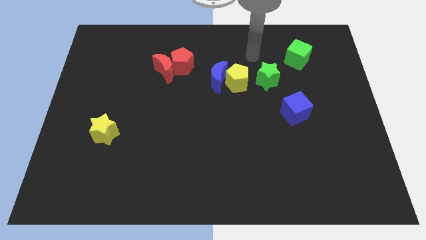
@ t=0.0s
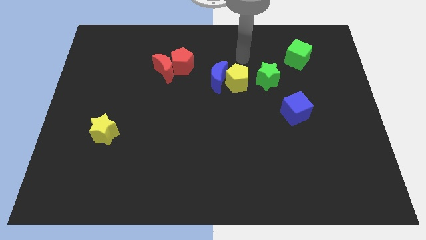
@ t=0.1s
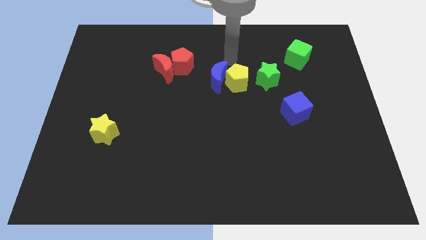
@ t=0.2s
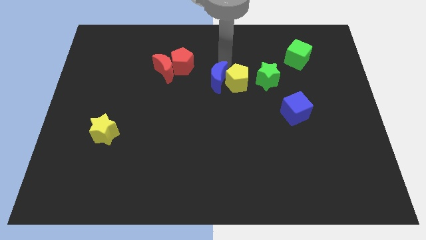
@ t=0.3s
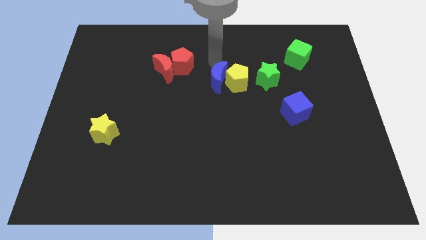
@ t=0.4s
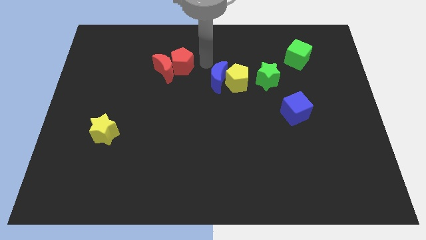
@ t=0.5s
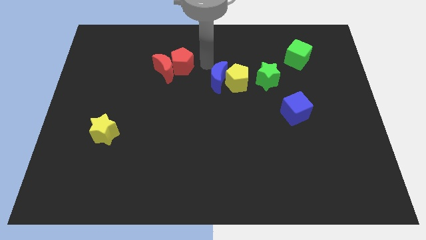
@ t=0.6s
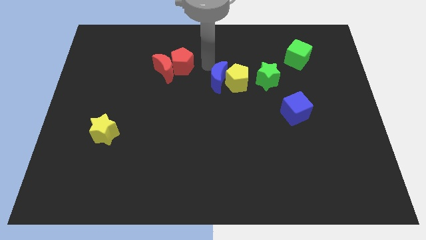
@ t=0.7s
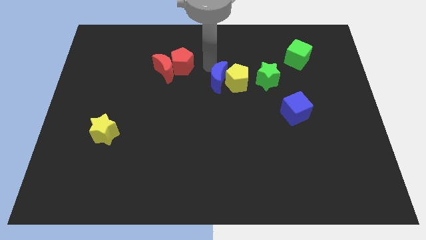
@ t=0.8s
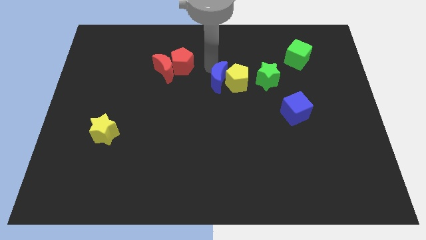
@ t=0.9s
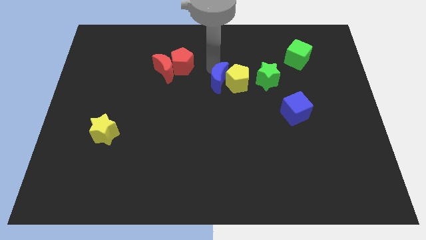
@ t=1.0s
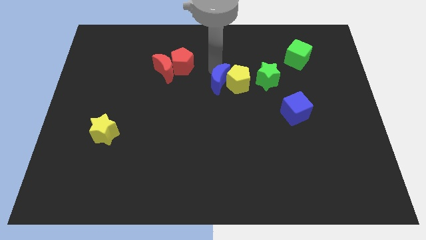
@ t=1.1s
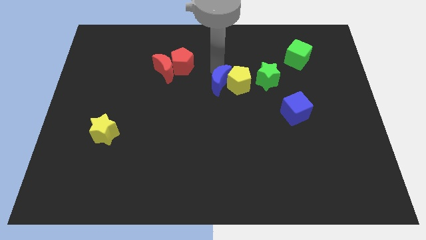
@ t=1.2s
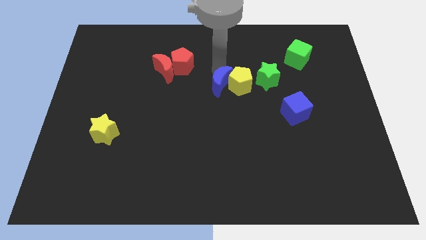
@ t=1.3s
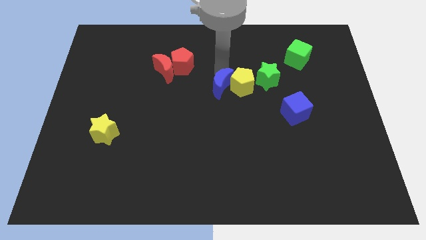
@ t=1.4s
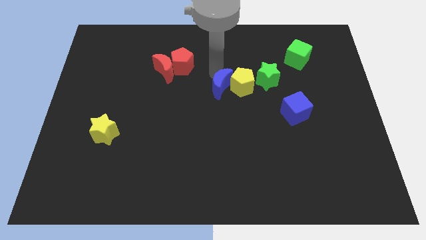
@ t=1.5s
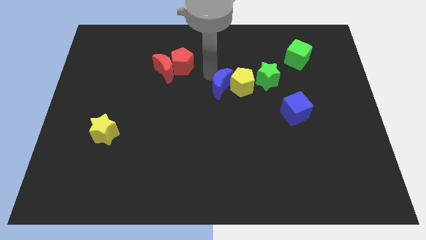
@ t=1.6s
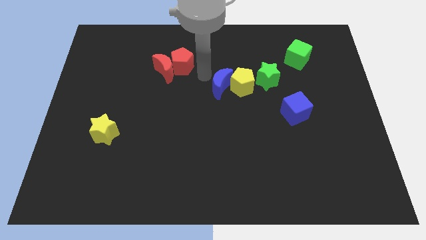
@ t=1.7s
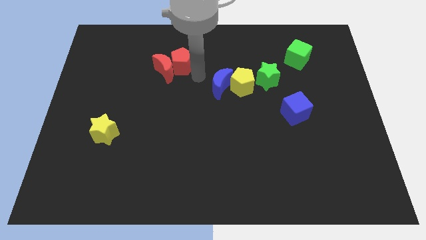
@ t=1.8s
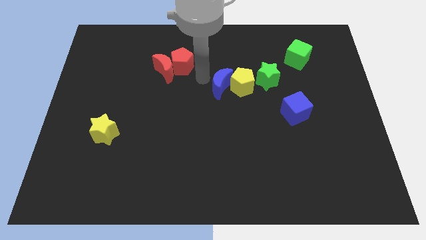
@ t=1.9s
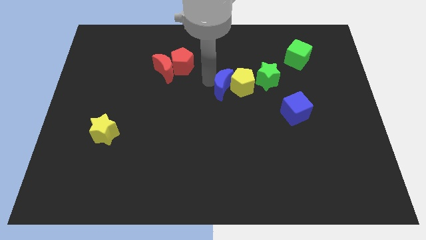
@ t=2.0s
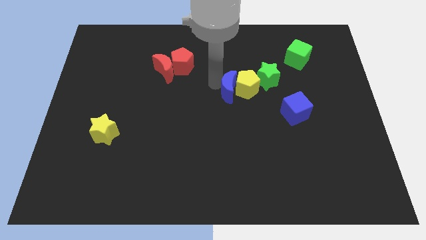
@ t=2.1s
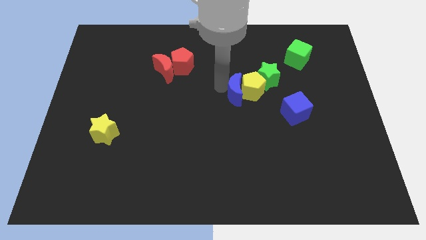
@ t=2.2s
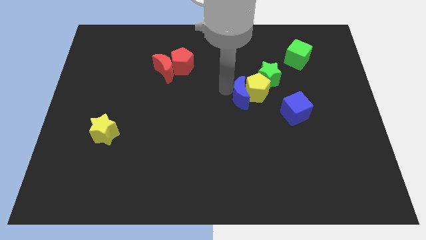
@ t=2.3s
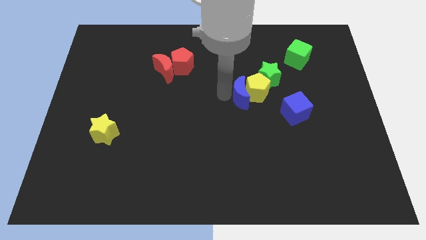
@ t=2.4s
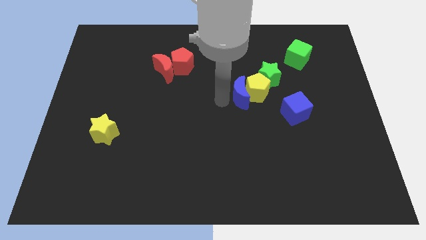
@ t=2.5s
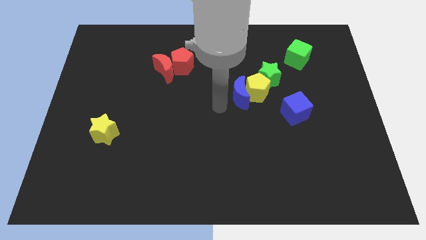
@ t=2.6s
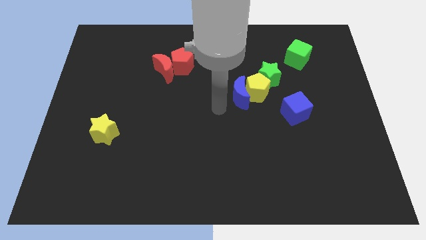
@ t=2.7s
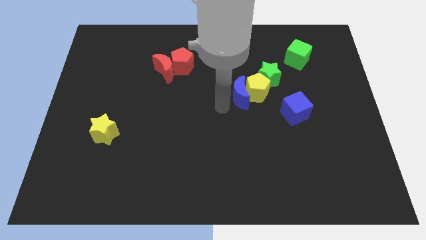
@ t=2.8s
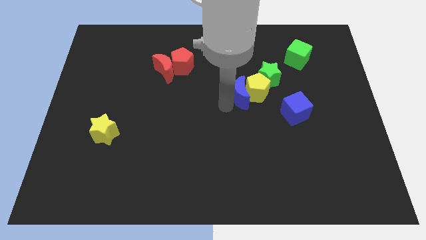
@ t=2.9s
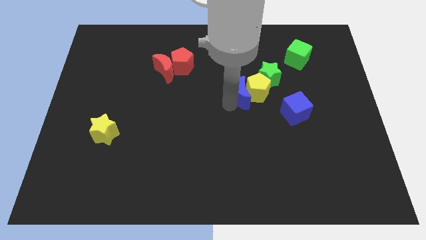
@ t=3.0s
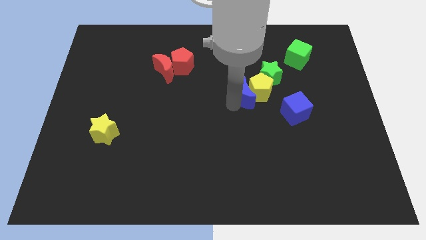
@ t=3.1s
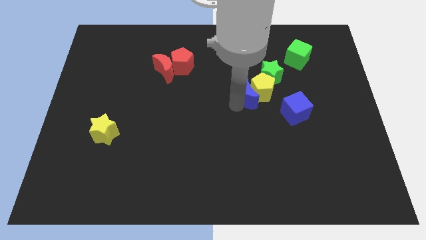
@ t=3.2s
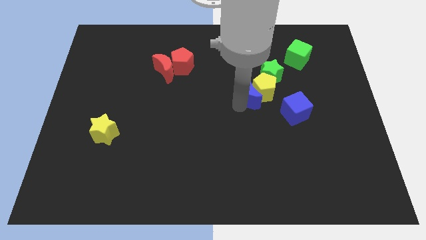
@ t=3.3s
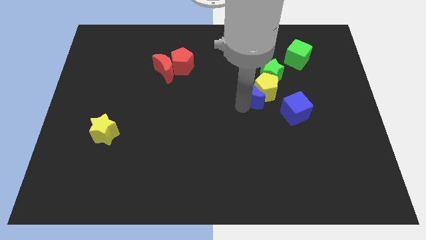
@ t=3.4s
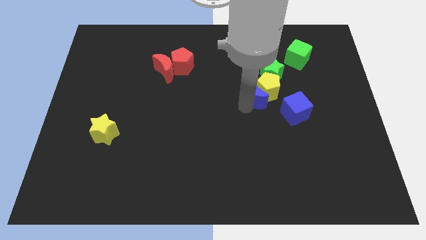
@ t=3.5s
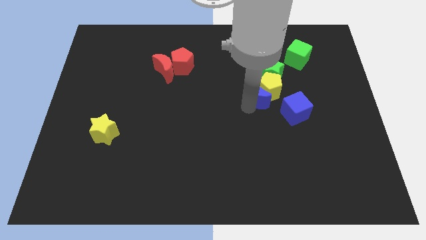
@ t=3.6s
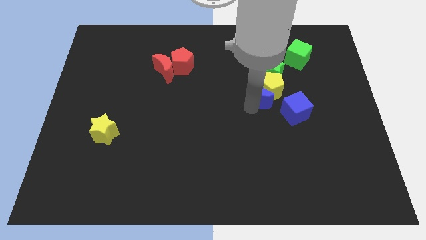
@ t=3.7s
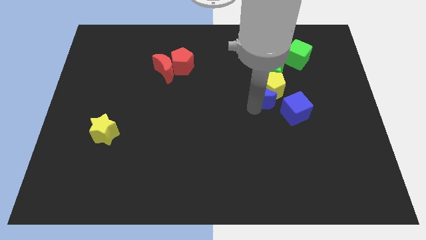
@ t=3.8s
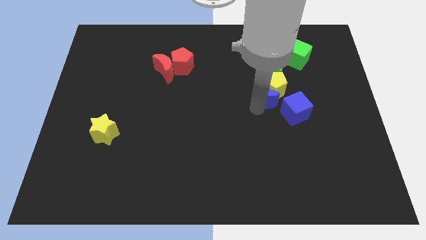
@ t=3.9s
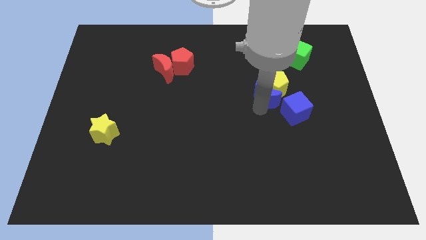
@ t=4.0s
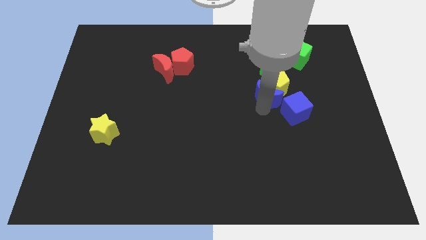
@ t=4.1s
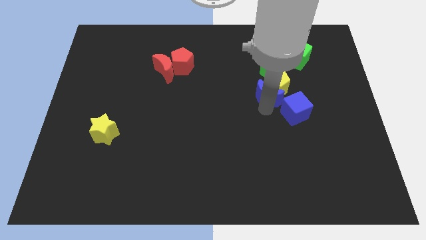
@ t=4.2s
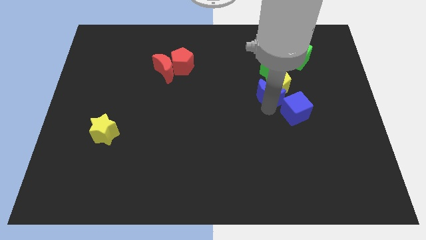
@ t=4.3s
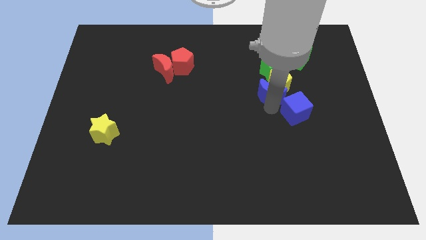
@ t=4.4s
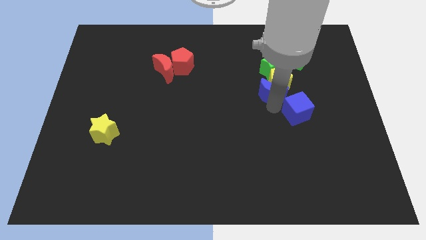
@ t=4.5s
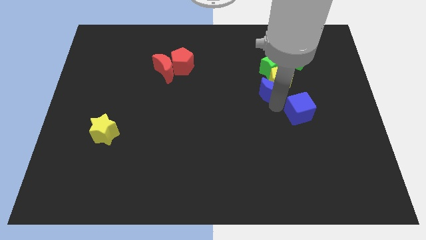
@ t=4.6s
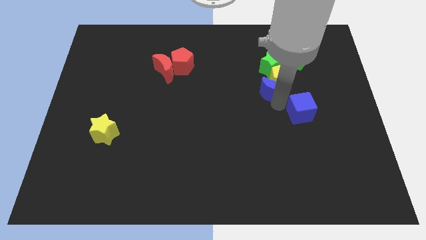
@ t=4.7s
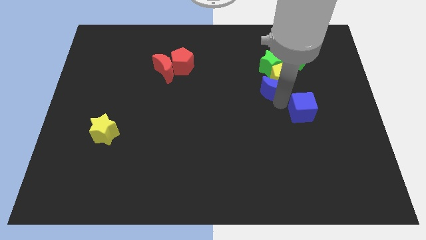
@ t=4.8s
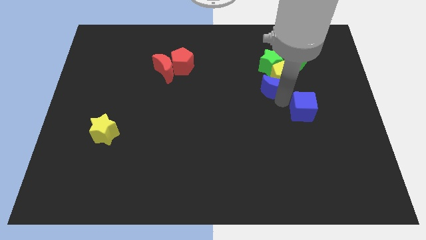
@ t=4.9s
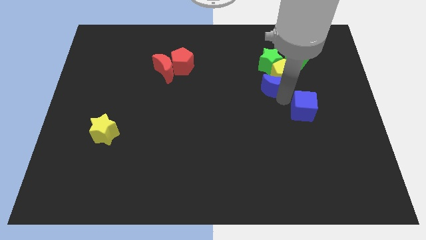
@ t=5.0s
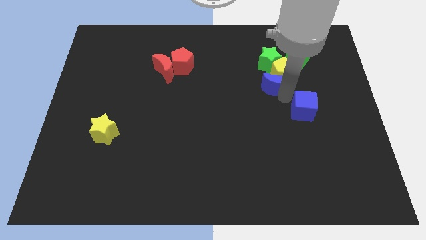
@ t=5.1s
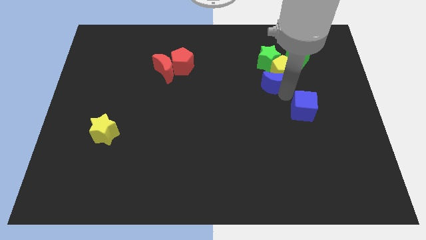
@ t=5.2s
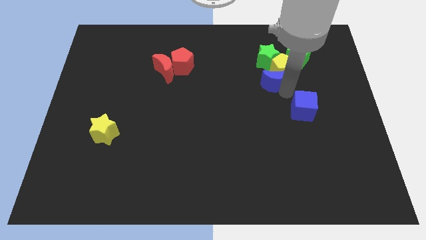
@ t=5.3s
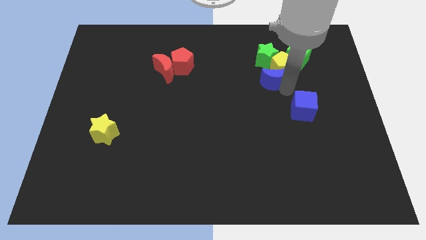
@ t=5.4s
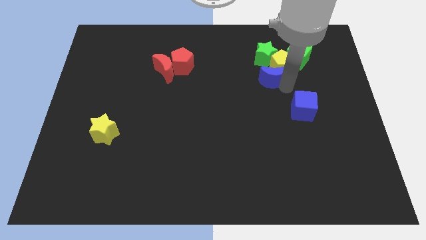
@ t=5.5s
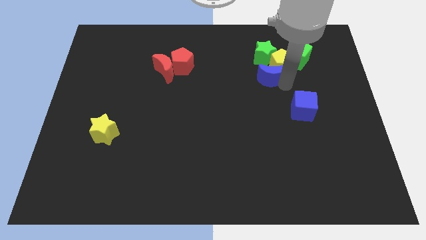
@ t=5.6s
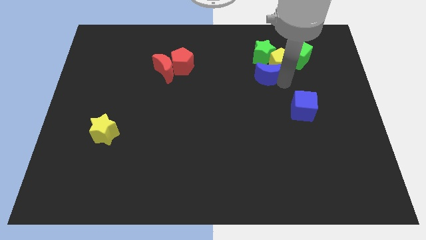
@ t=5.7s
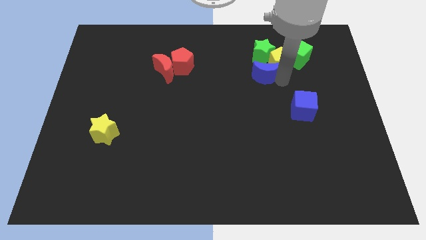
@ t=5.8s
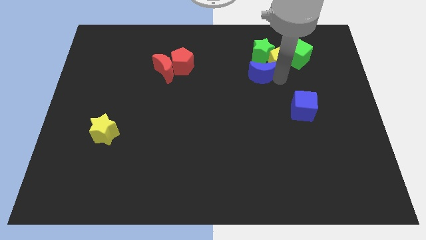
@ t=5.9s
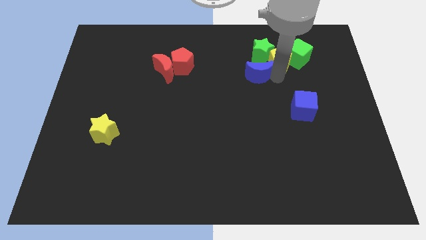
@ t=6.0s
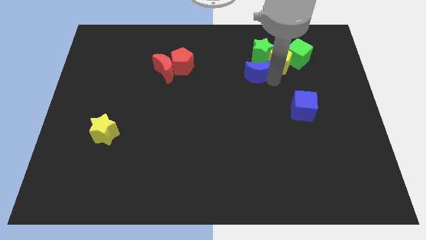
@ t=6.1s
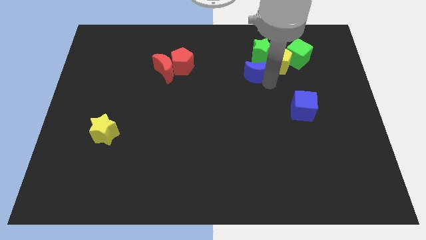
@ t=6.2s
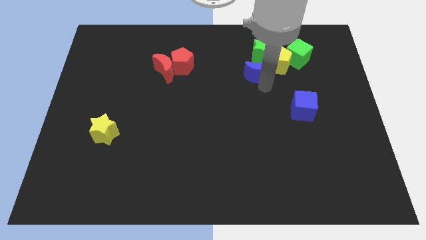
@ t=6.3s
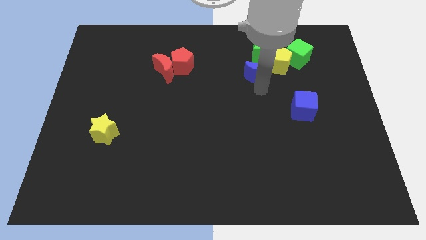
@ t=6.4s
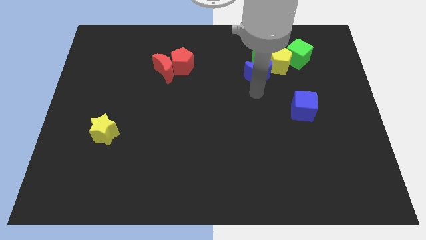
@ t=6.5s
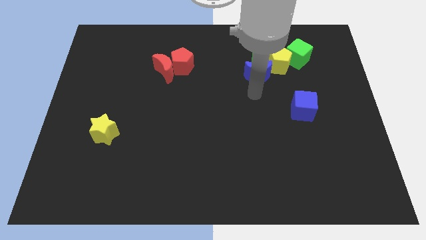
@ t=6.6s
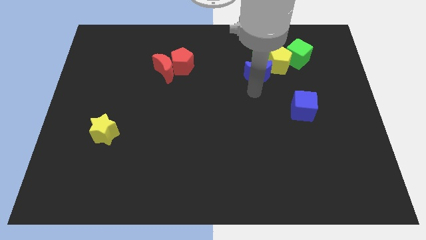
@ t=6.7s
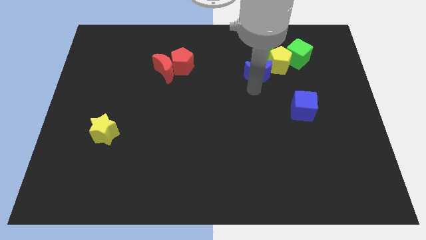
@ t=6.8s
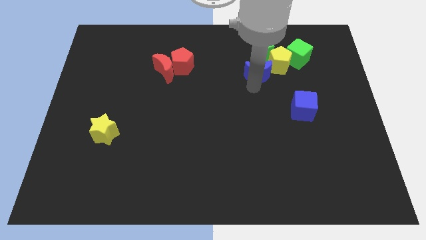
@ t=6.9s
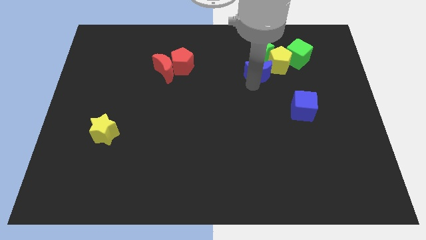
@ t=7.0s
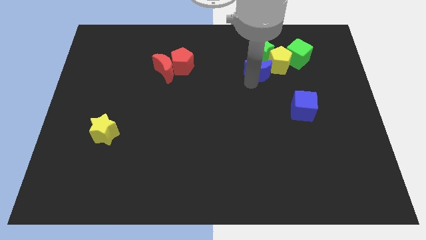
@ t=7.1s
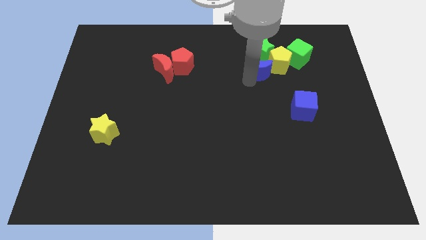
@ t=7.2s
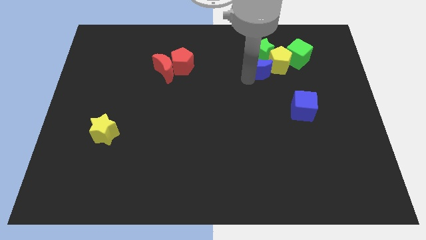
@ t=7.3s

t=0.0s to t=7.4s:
put the blue moon to the green star
